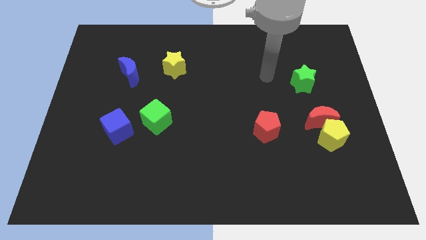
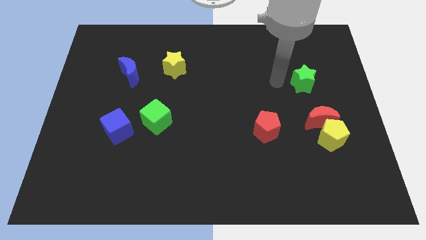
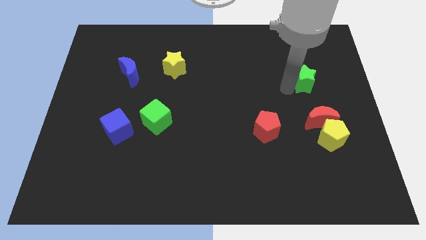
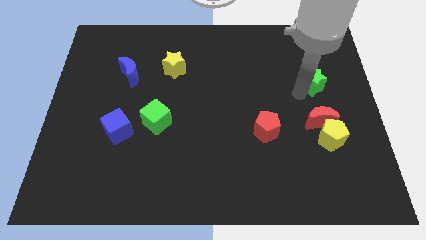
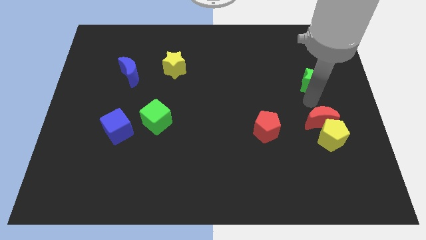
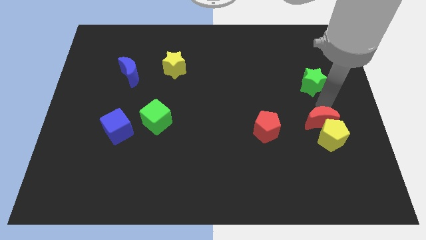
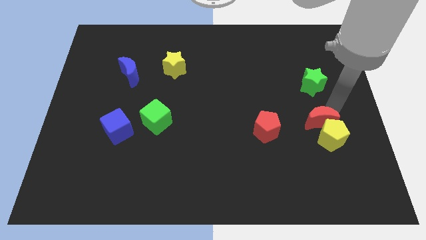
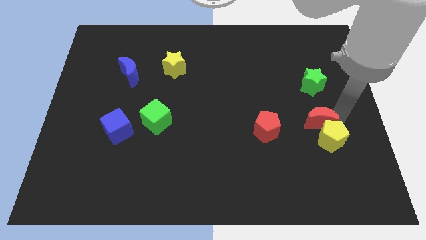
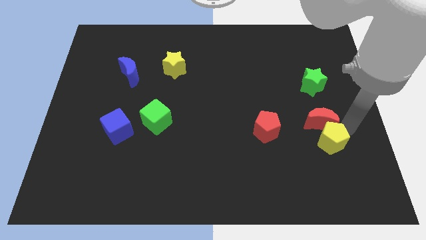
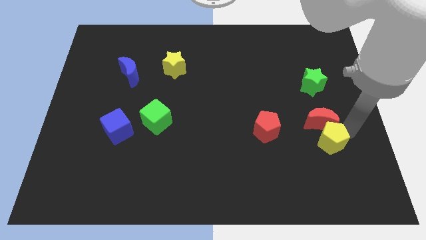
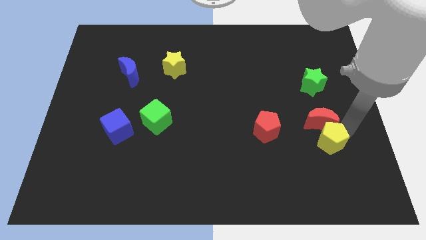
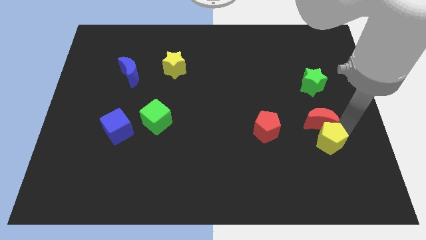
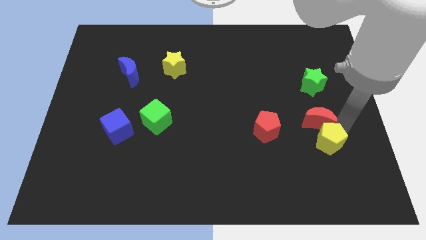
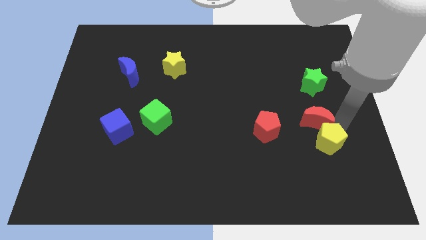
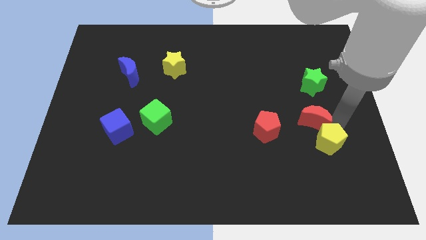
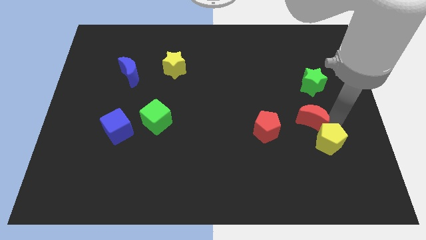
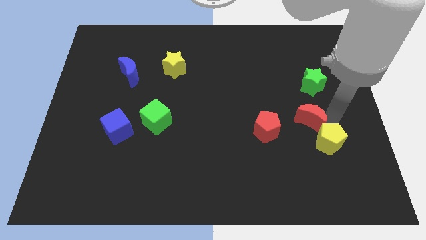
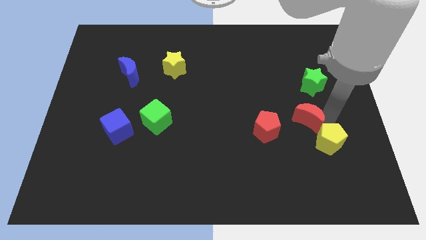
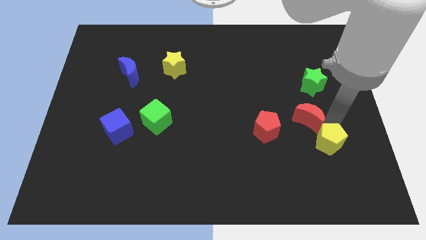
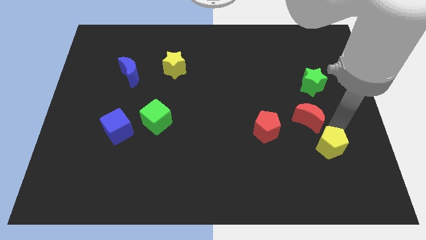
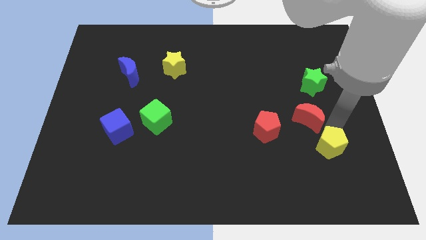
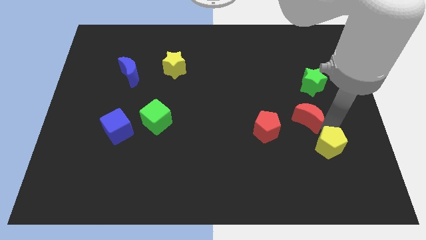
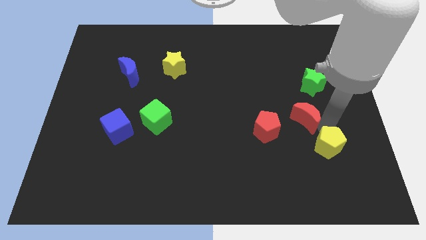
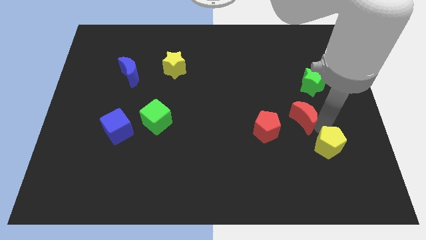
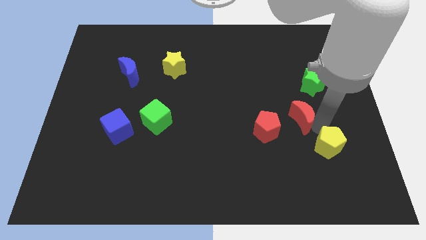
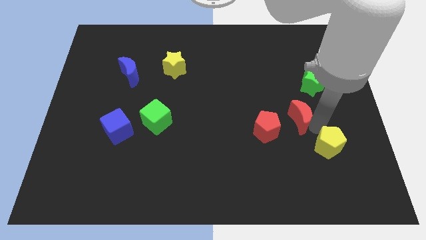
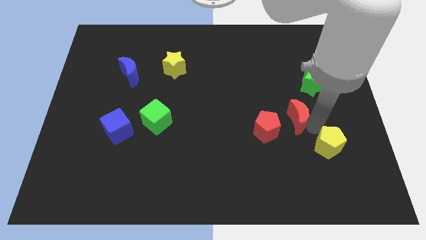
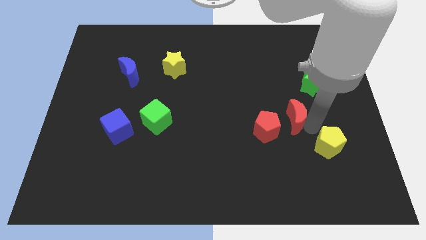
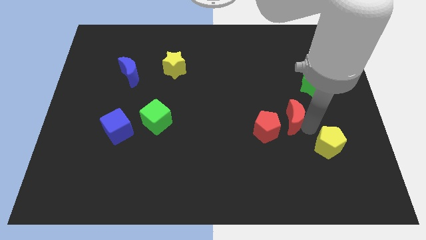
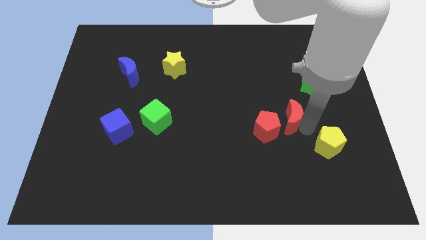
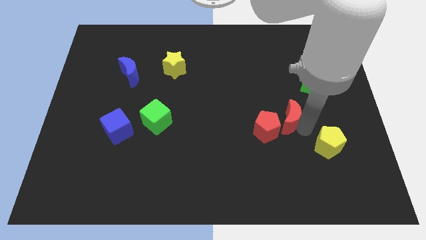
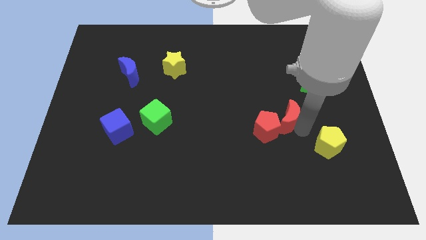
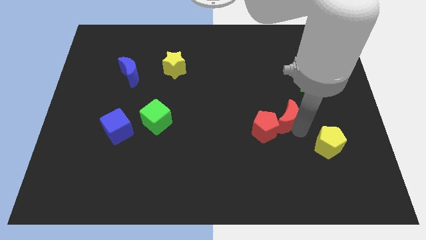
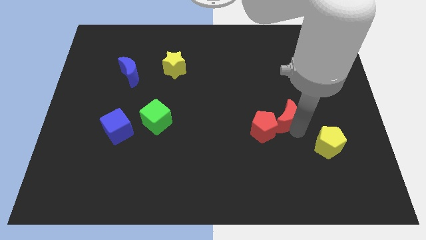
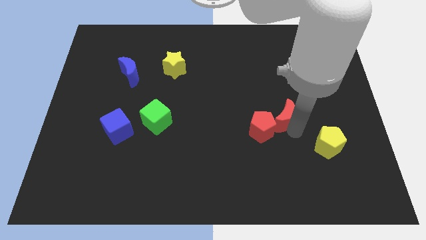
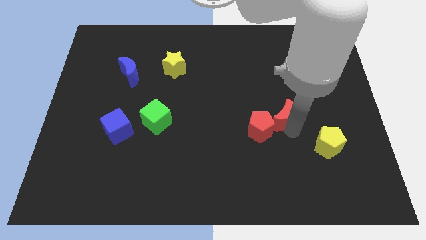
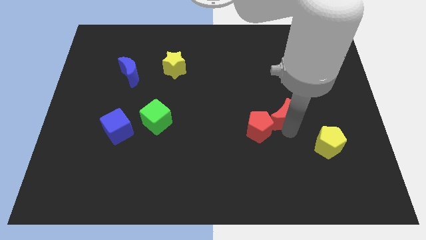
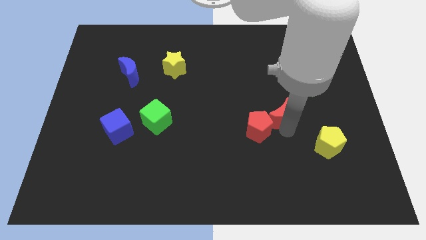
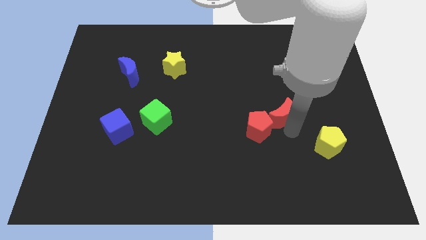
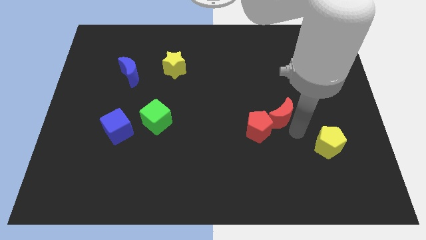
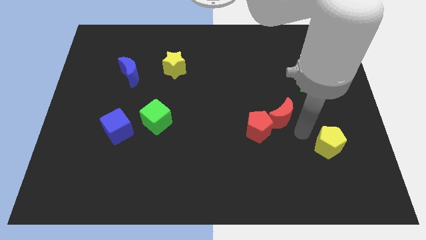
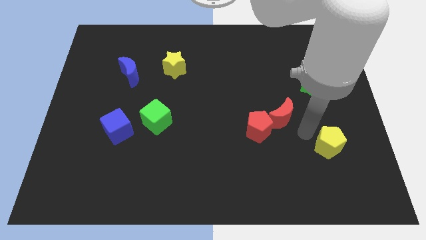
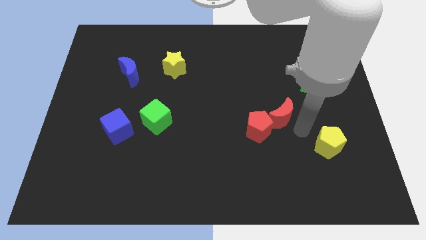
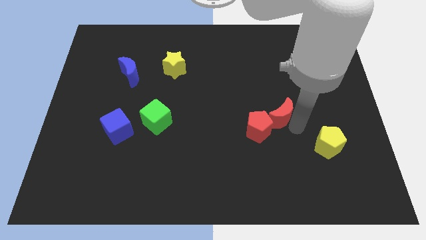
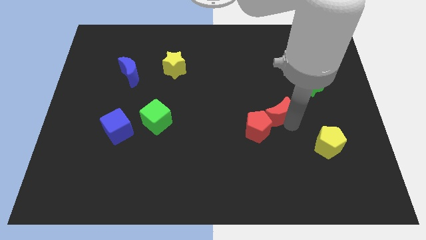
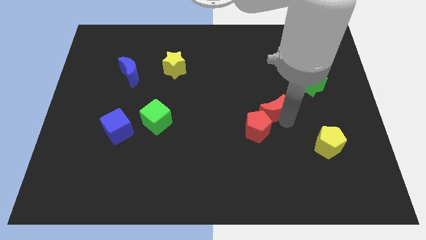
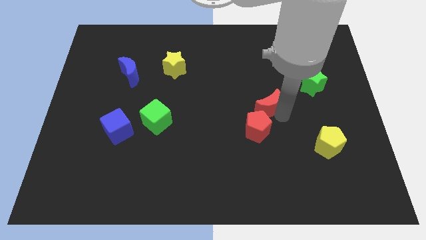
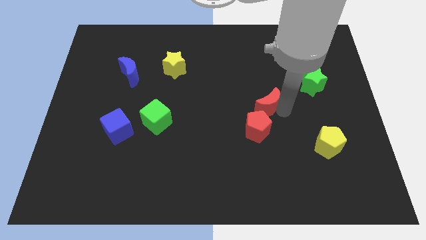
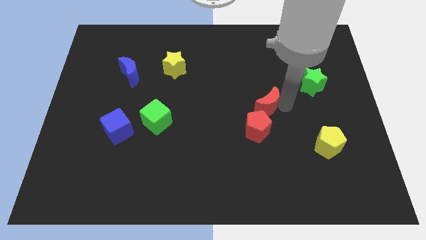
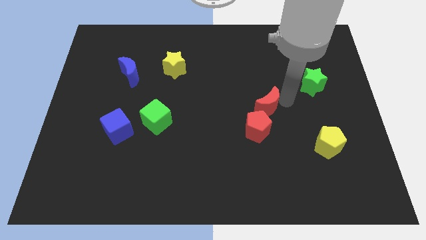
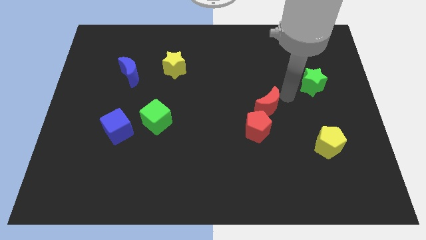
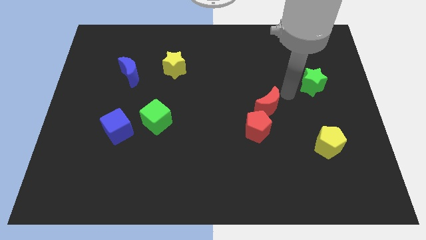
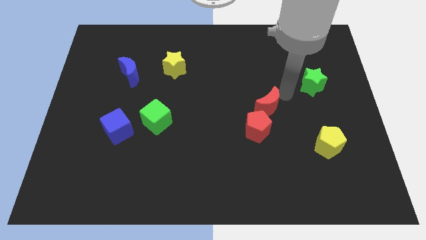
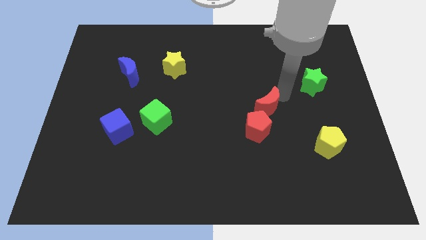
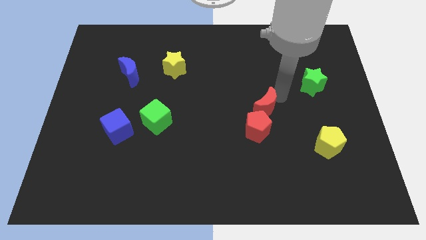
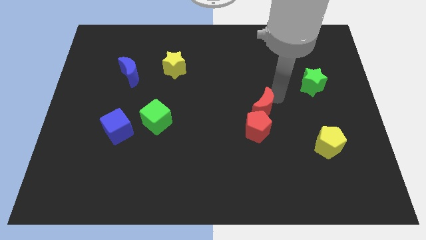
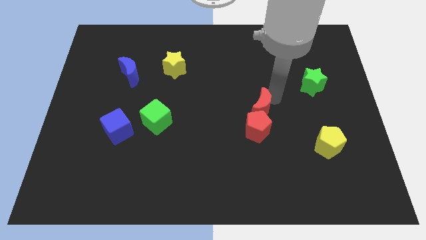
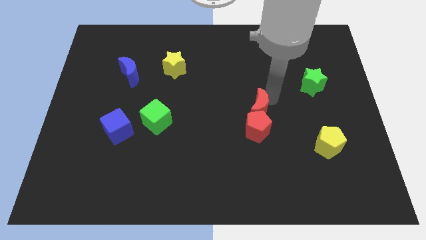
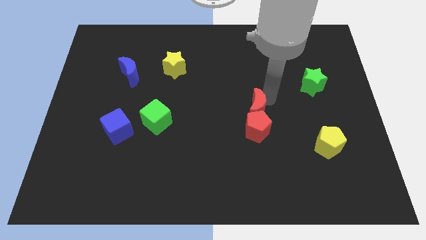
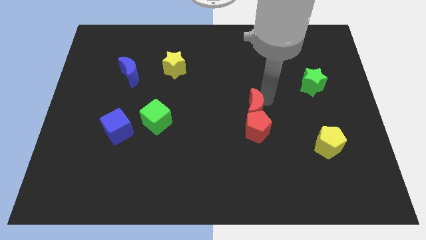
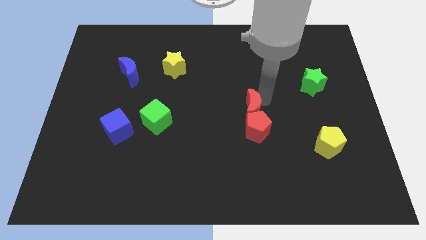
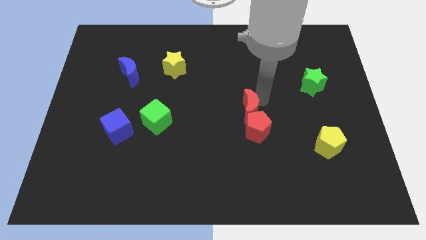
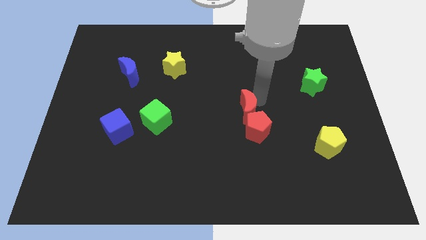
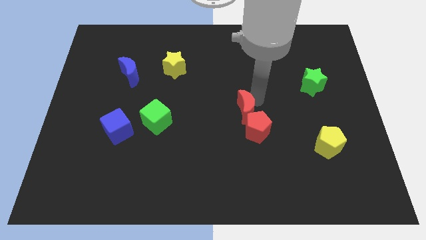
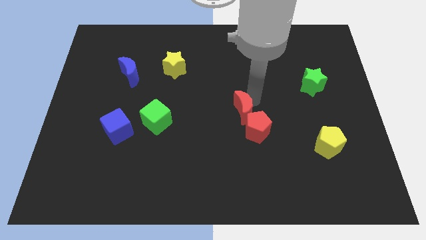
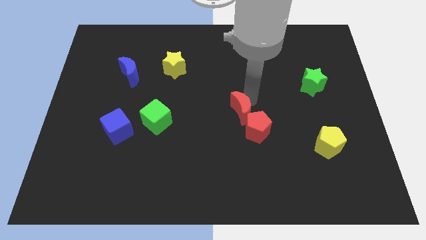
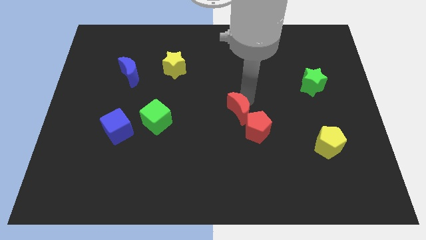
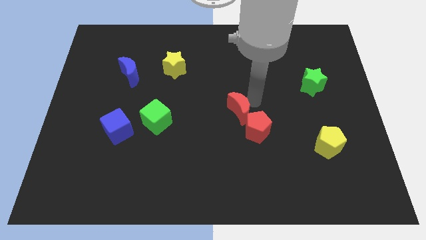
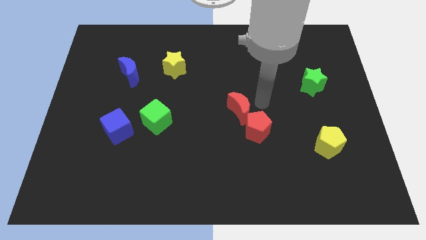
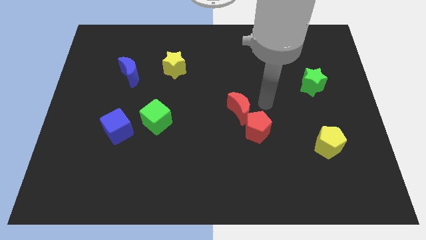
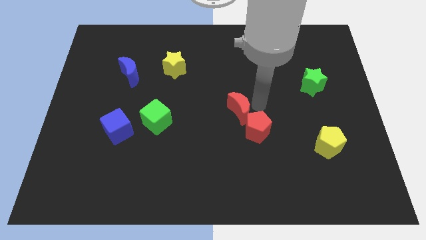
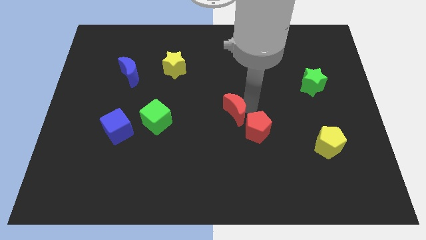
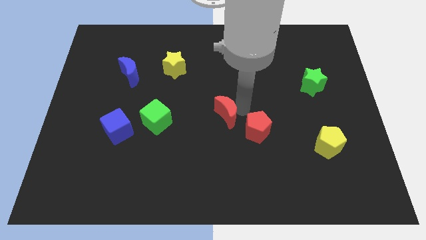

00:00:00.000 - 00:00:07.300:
push the red moon to the right of the green cube
